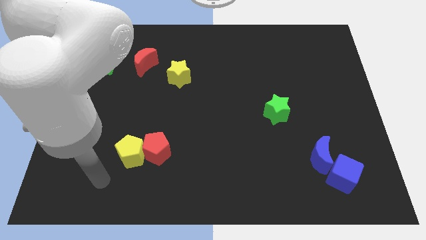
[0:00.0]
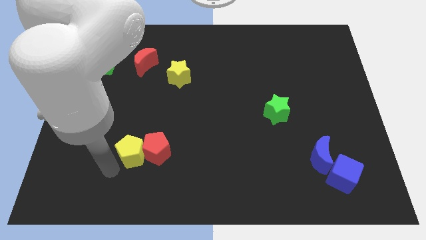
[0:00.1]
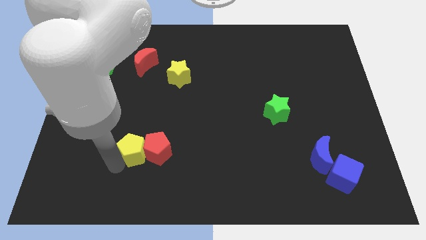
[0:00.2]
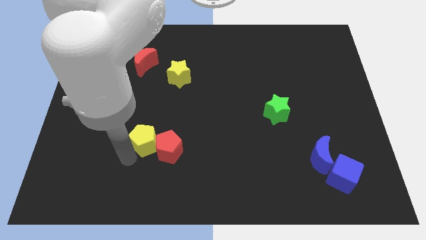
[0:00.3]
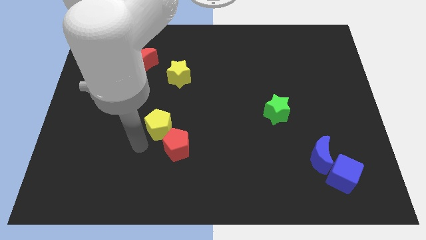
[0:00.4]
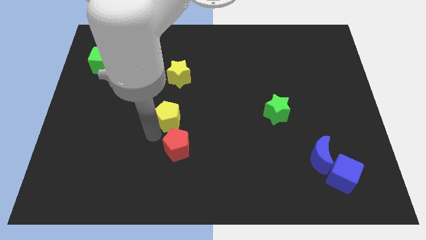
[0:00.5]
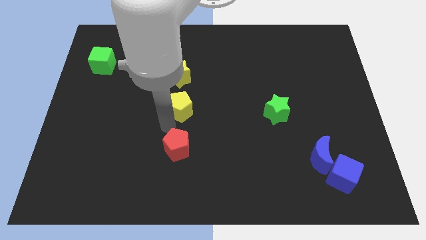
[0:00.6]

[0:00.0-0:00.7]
separate the red pentagon from the yellow pentagon

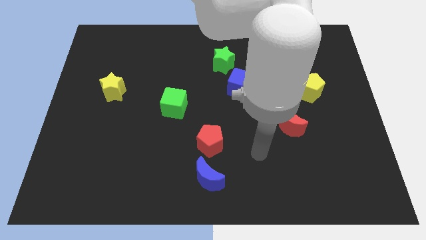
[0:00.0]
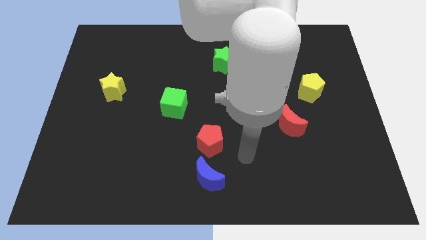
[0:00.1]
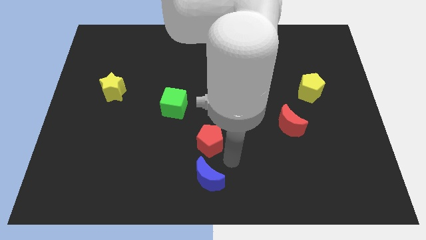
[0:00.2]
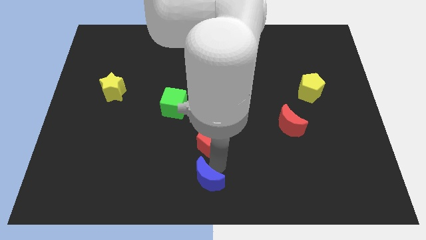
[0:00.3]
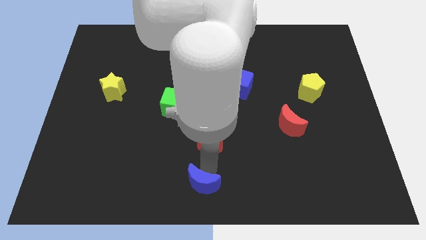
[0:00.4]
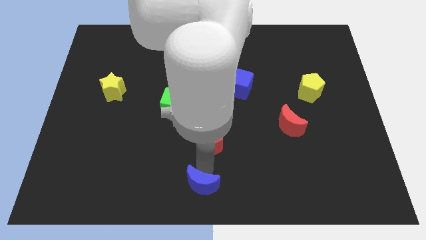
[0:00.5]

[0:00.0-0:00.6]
separate the red pentagon from the blue moon

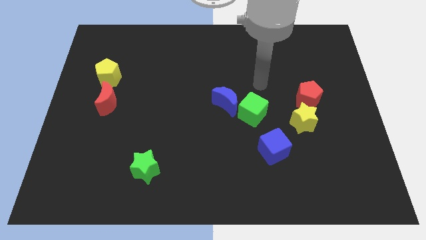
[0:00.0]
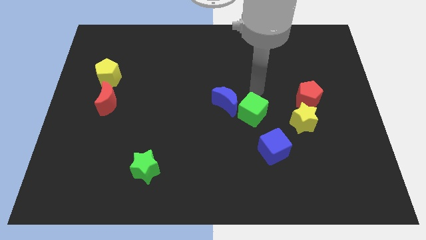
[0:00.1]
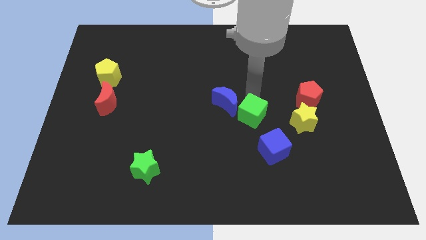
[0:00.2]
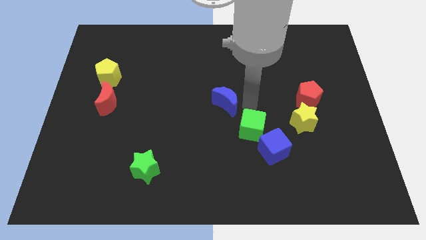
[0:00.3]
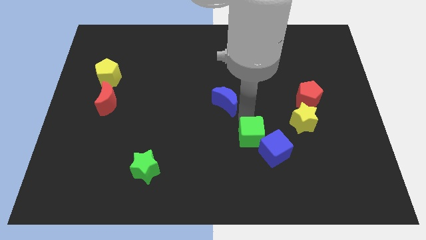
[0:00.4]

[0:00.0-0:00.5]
pull the blue moon apart from the green cube

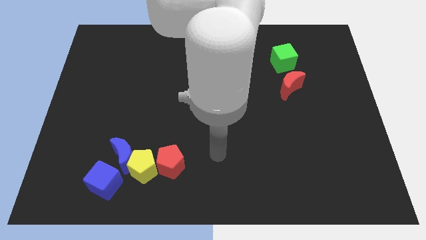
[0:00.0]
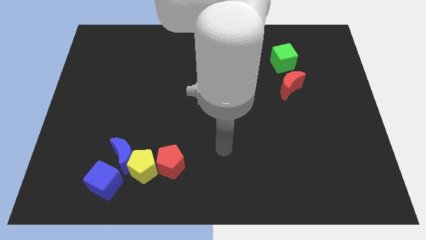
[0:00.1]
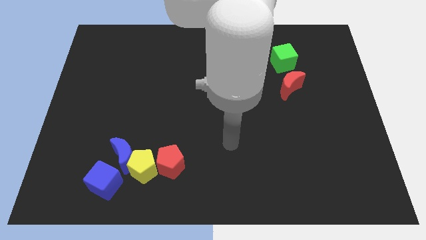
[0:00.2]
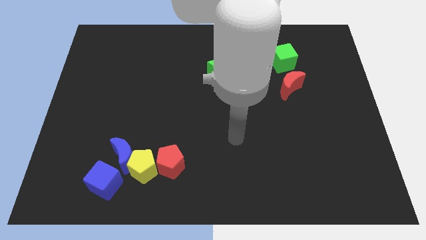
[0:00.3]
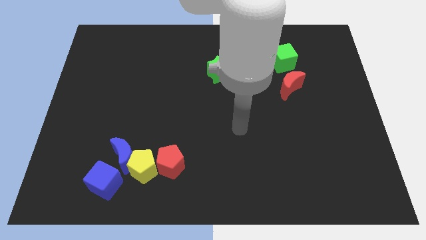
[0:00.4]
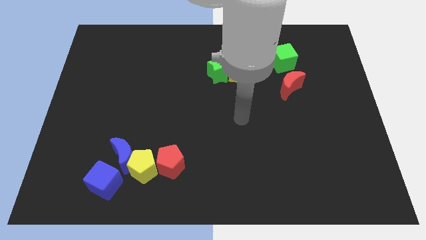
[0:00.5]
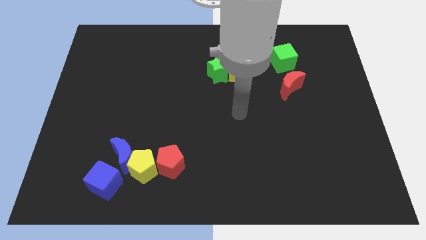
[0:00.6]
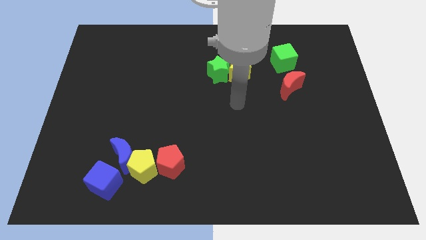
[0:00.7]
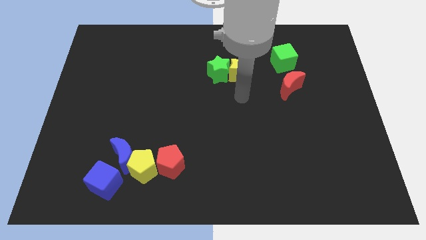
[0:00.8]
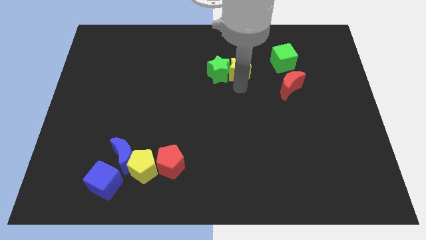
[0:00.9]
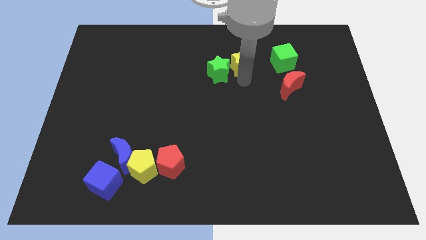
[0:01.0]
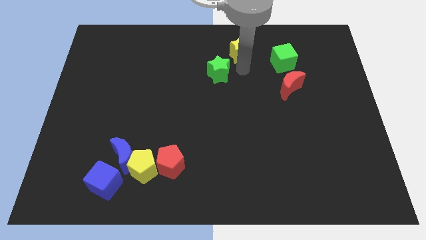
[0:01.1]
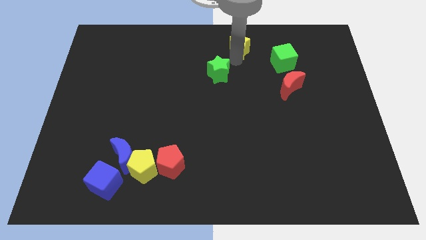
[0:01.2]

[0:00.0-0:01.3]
pull the green star apart from the yellow star

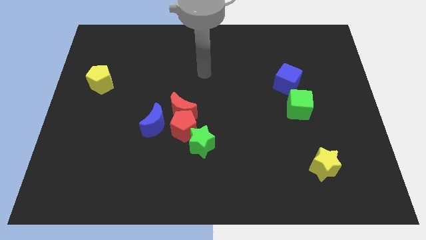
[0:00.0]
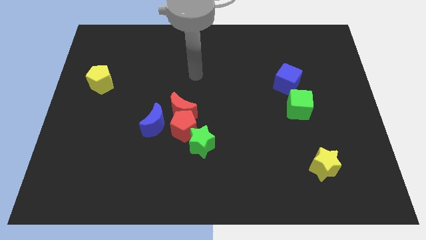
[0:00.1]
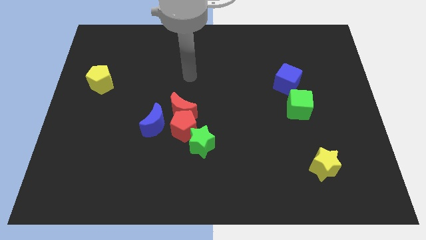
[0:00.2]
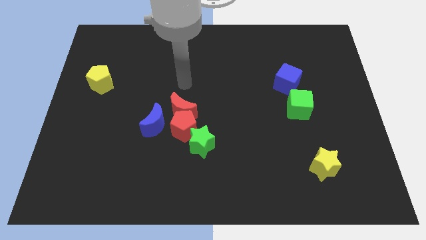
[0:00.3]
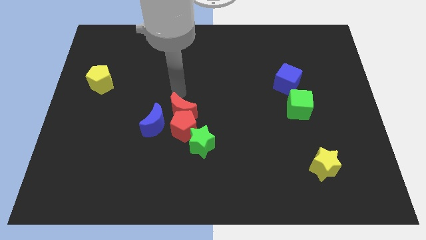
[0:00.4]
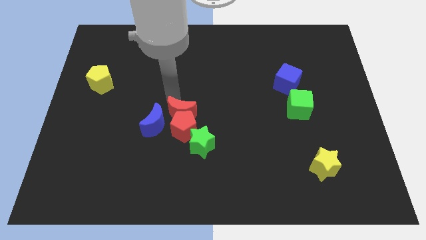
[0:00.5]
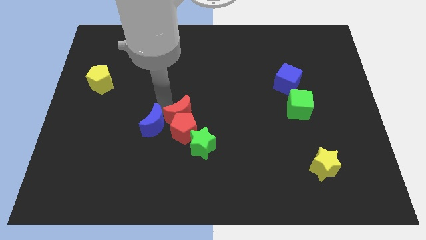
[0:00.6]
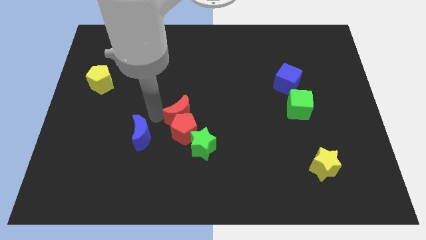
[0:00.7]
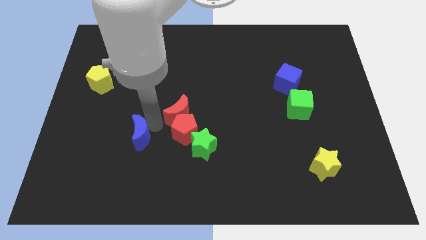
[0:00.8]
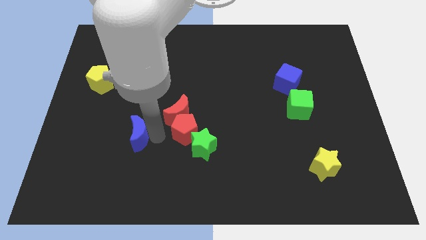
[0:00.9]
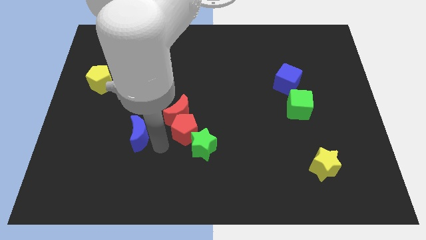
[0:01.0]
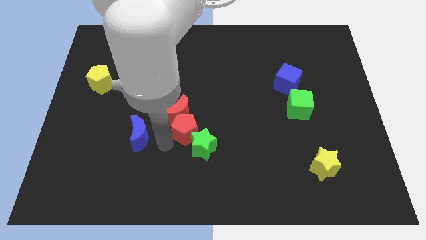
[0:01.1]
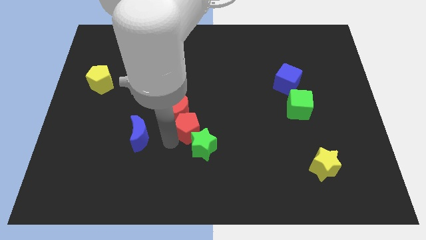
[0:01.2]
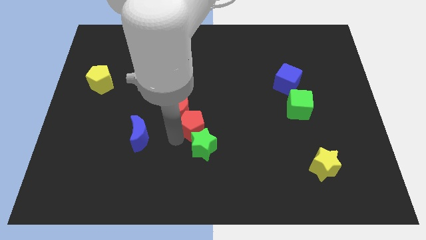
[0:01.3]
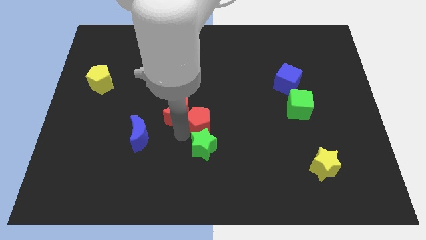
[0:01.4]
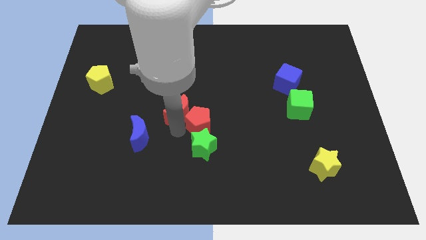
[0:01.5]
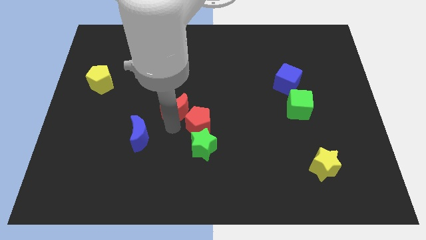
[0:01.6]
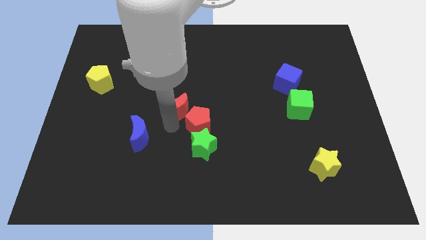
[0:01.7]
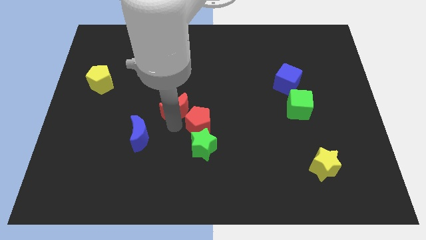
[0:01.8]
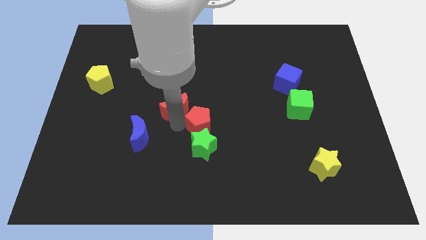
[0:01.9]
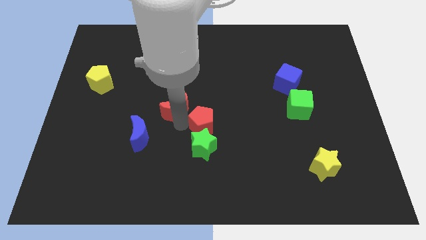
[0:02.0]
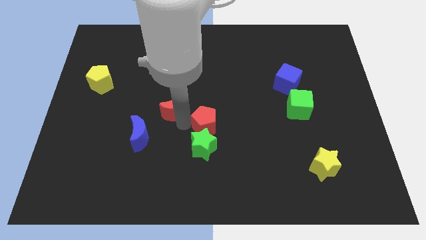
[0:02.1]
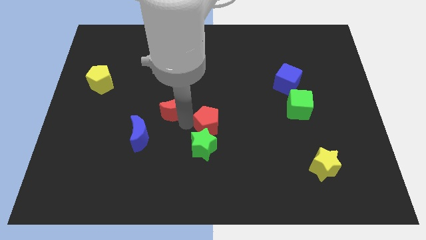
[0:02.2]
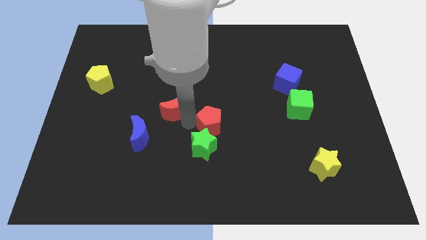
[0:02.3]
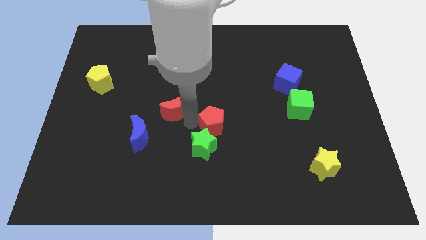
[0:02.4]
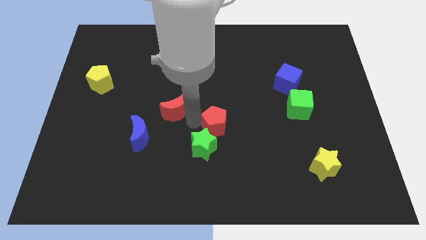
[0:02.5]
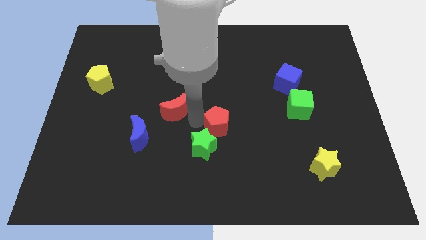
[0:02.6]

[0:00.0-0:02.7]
pull the red pentagon apart from the group of blocks

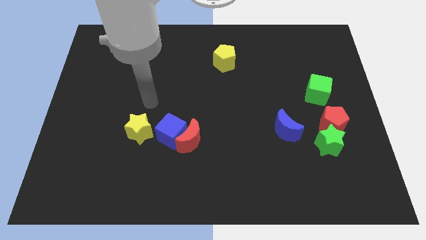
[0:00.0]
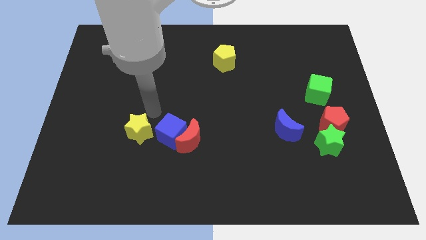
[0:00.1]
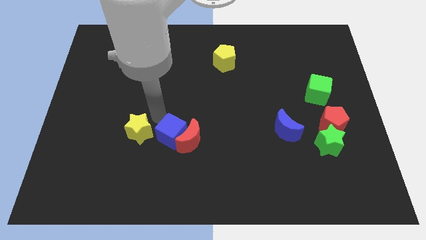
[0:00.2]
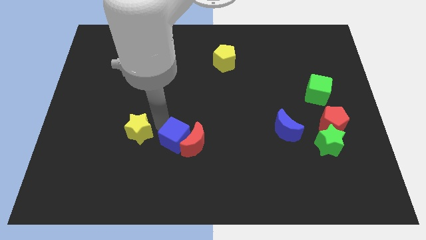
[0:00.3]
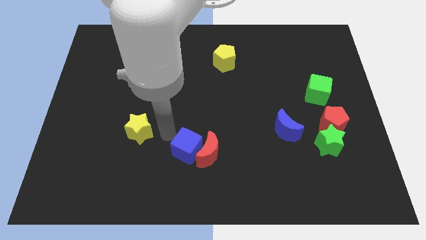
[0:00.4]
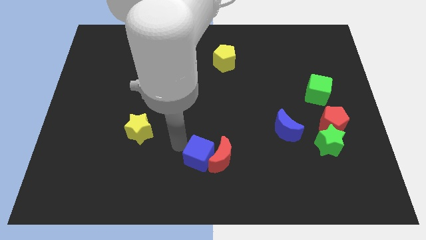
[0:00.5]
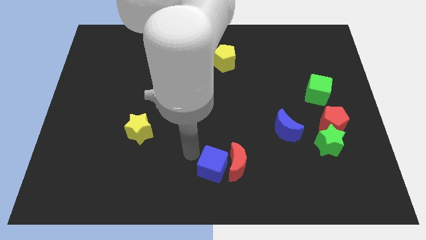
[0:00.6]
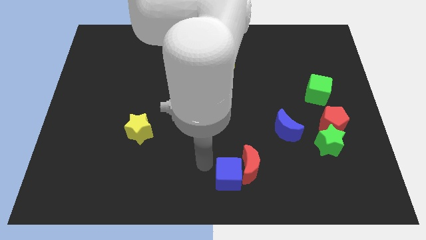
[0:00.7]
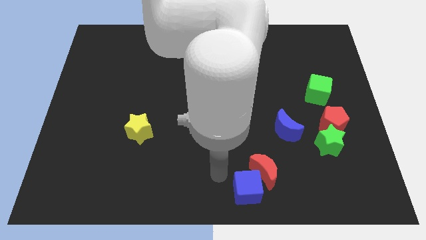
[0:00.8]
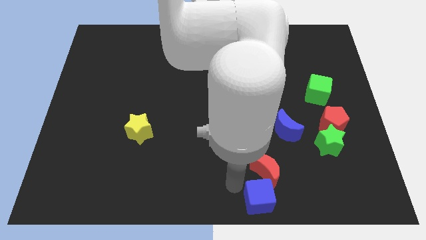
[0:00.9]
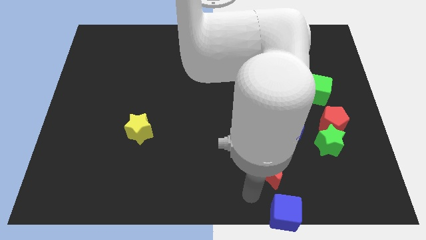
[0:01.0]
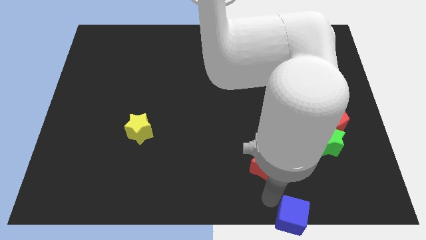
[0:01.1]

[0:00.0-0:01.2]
separate the red moon from the blue cube

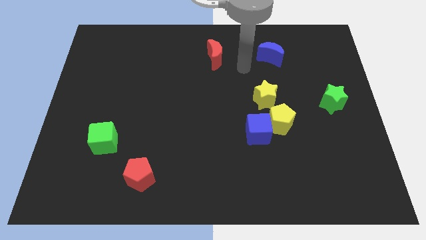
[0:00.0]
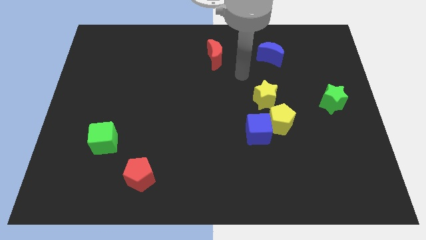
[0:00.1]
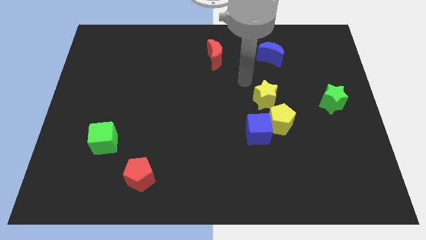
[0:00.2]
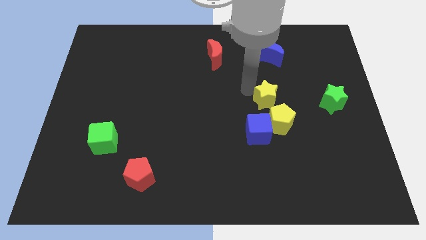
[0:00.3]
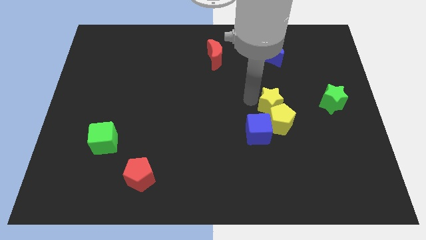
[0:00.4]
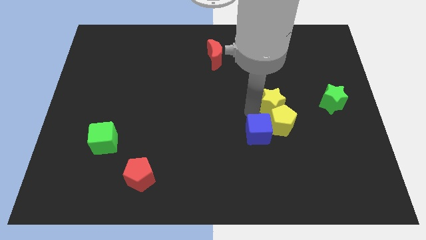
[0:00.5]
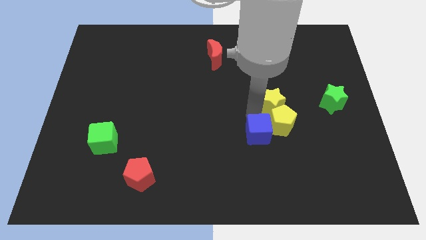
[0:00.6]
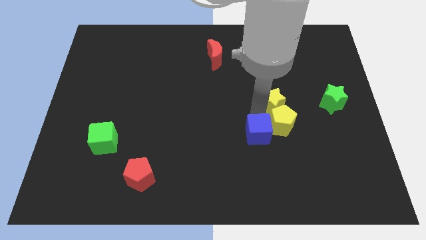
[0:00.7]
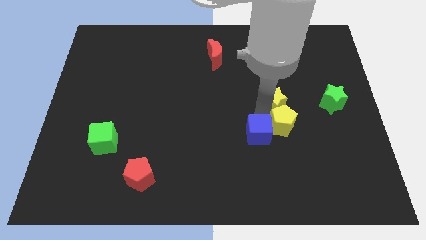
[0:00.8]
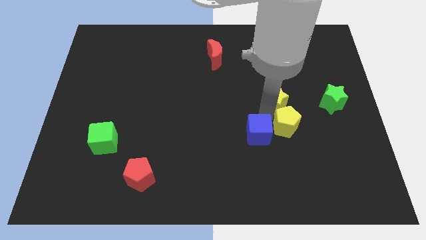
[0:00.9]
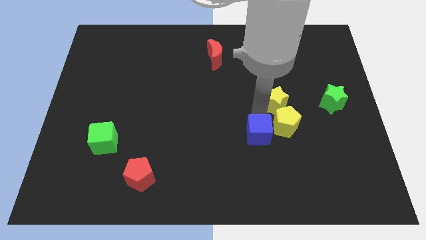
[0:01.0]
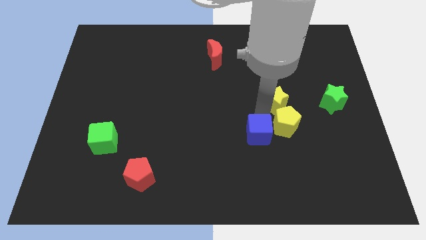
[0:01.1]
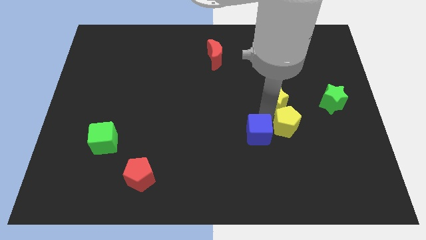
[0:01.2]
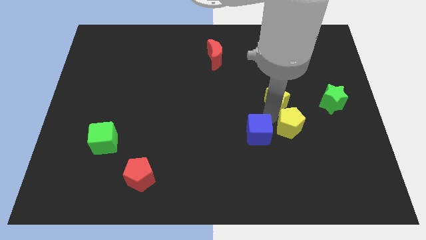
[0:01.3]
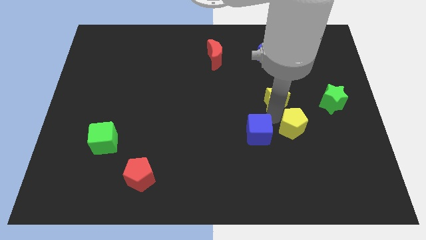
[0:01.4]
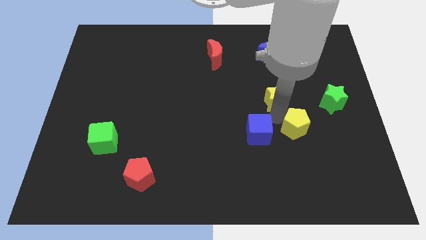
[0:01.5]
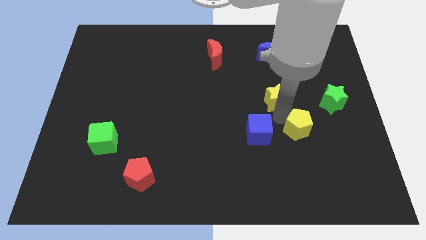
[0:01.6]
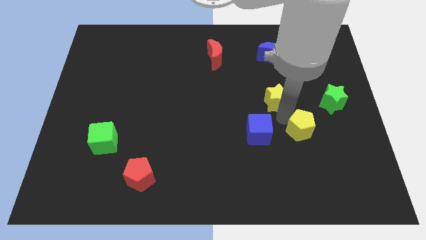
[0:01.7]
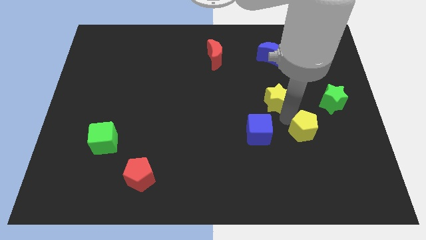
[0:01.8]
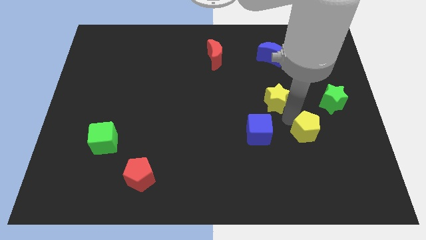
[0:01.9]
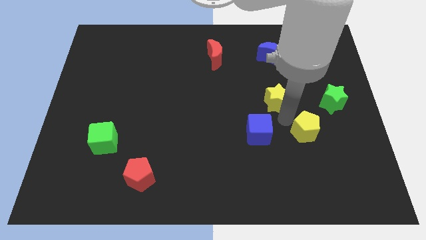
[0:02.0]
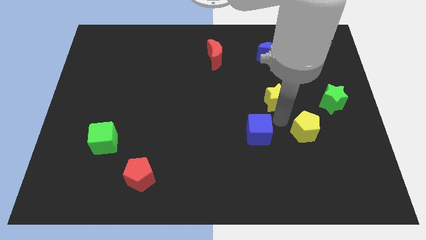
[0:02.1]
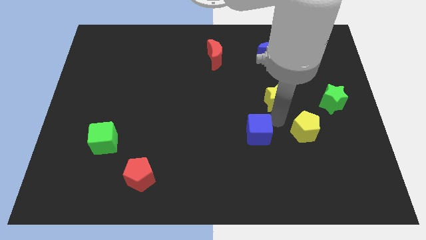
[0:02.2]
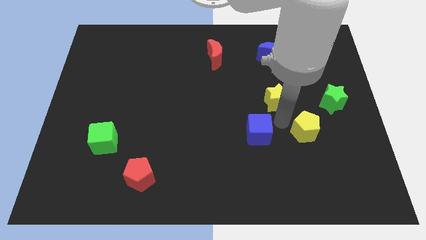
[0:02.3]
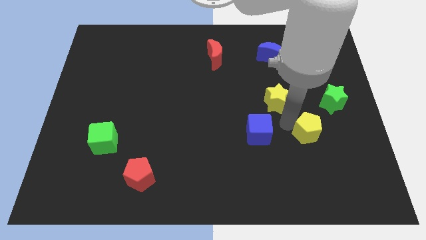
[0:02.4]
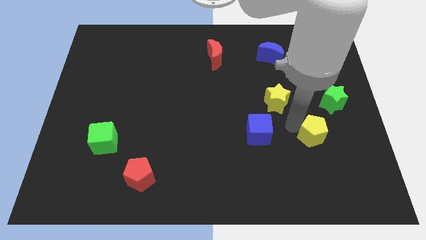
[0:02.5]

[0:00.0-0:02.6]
pull the yellow pentagon apart from the blue cube and yellow star
